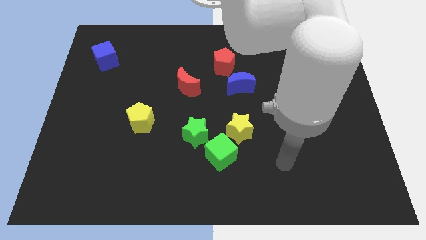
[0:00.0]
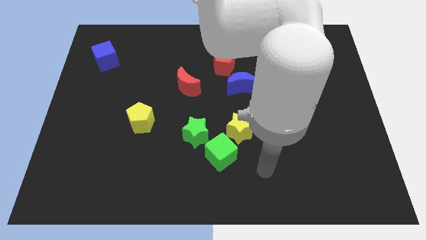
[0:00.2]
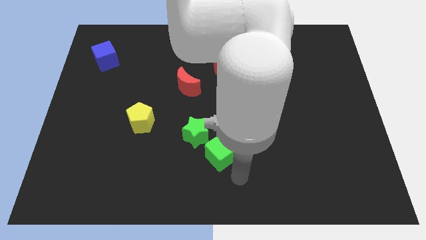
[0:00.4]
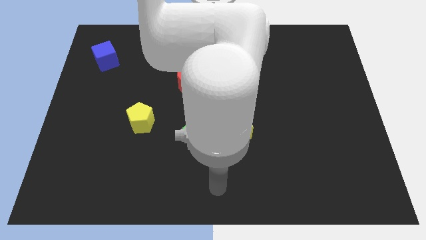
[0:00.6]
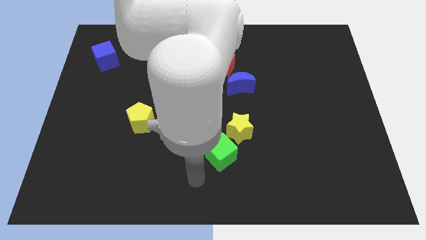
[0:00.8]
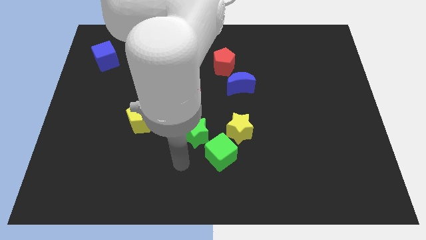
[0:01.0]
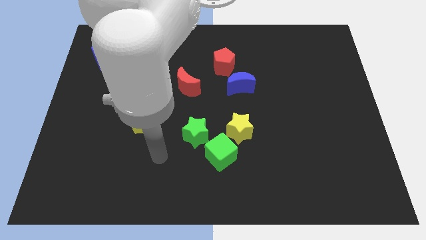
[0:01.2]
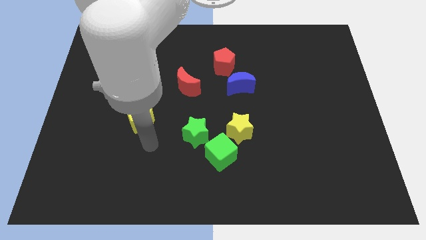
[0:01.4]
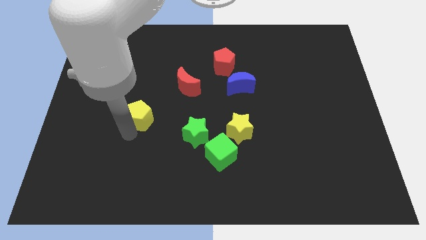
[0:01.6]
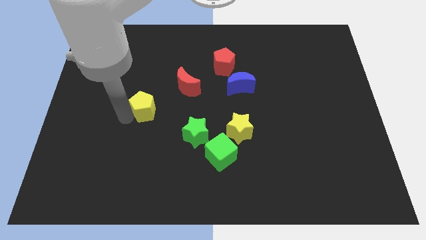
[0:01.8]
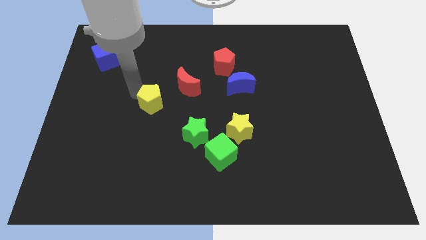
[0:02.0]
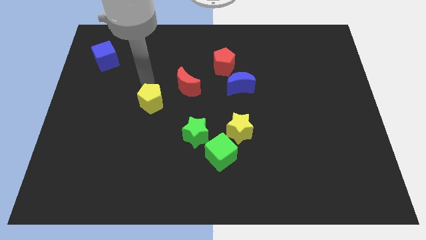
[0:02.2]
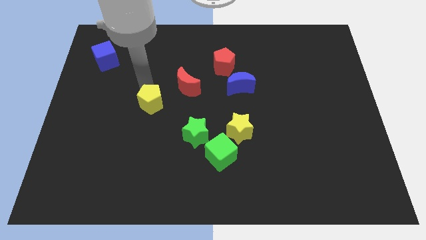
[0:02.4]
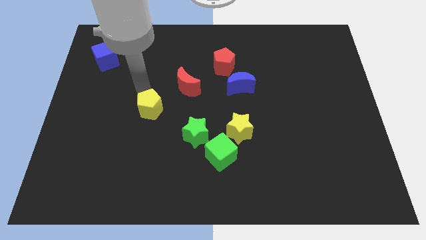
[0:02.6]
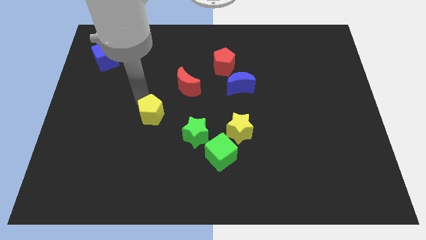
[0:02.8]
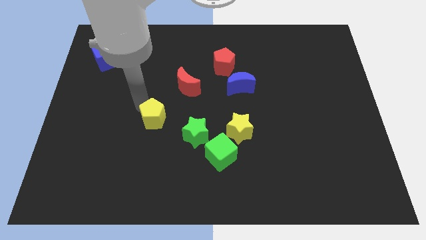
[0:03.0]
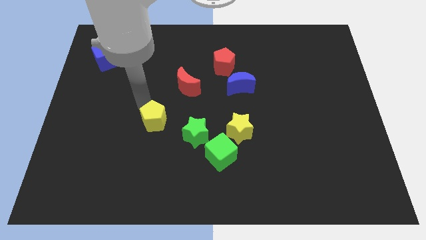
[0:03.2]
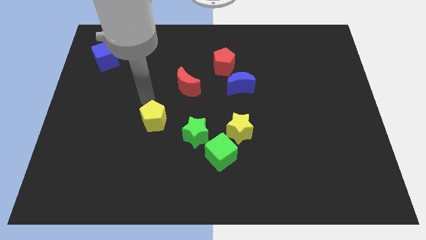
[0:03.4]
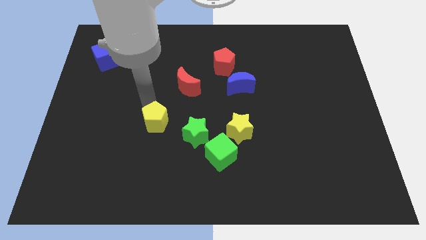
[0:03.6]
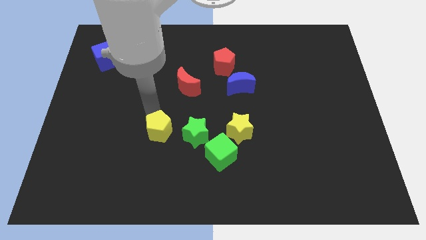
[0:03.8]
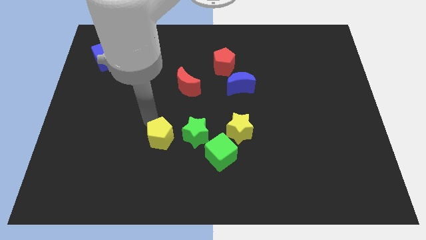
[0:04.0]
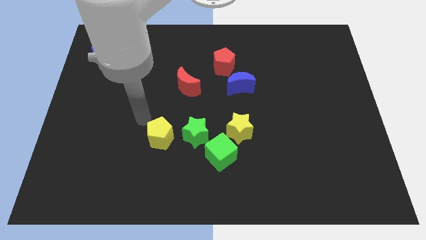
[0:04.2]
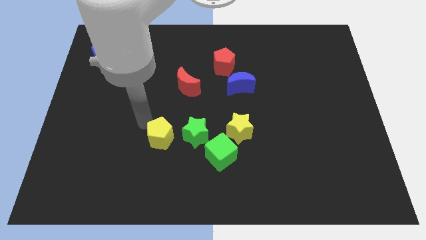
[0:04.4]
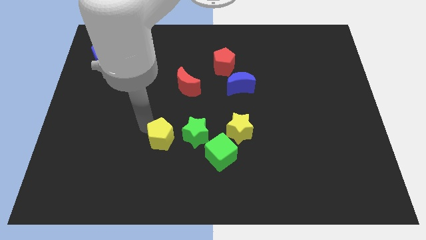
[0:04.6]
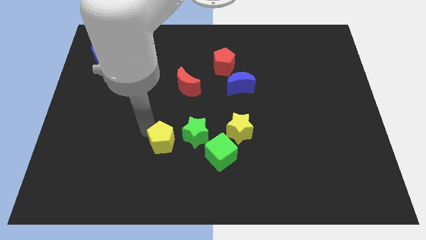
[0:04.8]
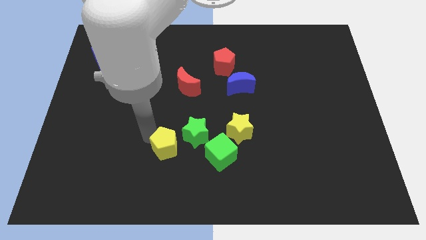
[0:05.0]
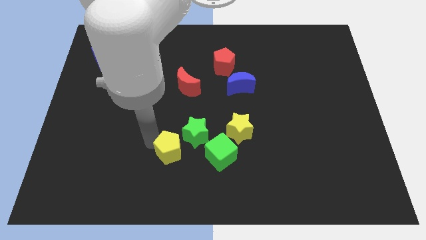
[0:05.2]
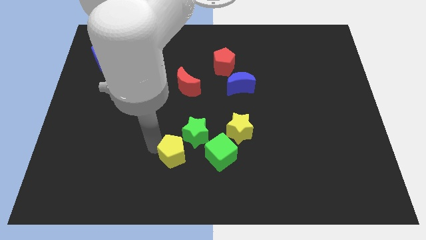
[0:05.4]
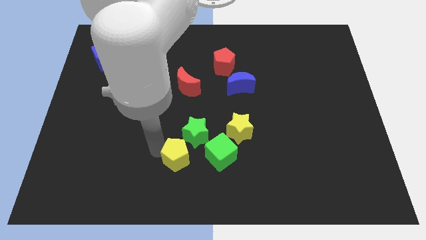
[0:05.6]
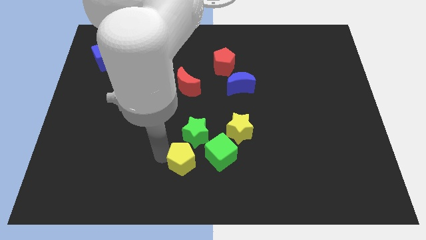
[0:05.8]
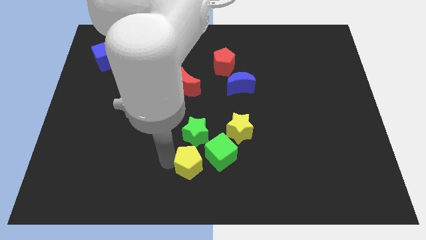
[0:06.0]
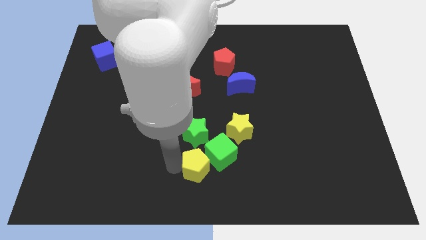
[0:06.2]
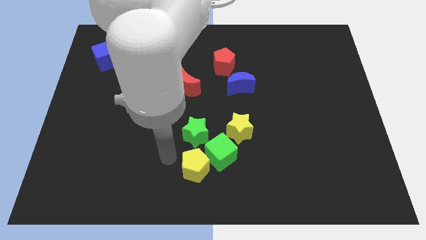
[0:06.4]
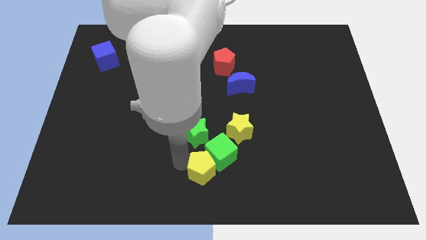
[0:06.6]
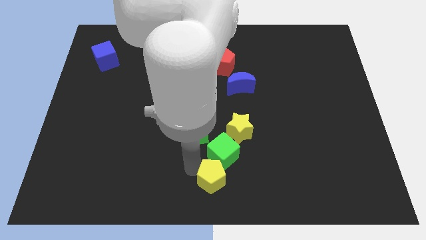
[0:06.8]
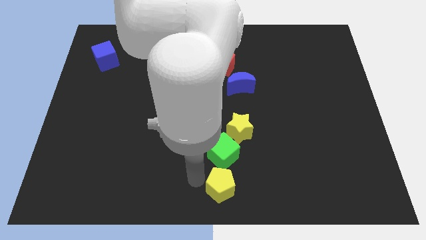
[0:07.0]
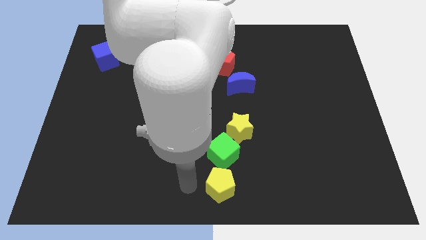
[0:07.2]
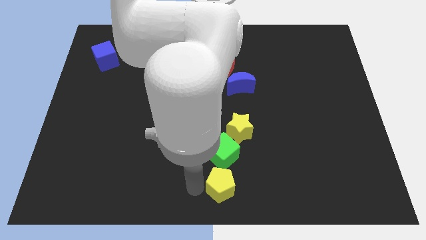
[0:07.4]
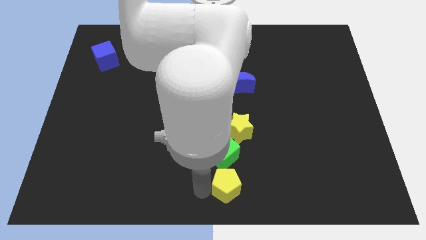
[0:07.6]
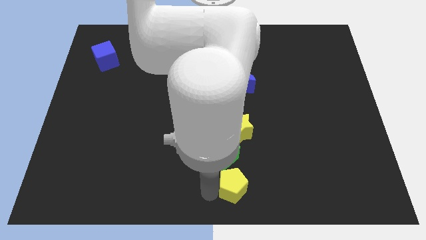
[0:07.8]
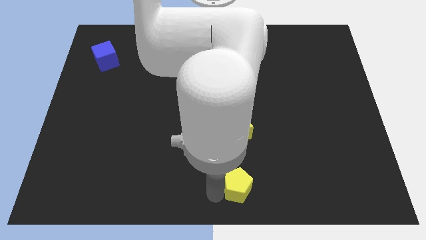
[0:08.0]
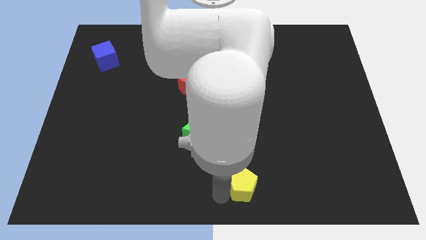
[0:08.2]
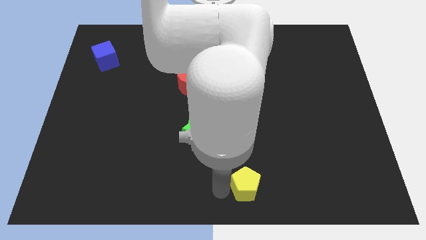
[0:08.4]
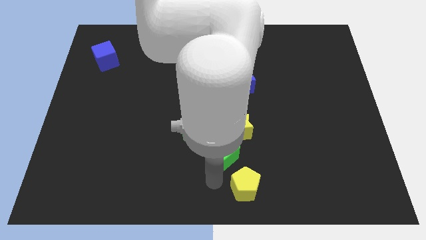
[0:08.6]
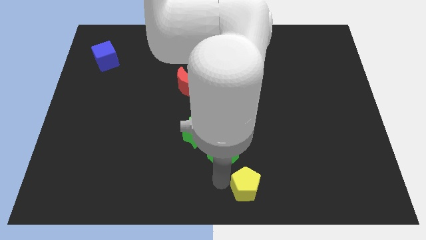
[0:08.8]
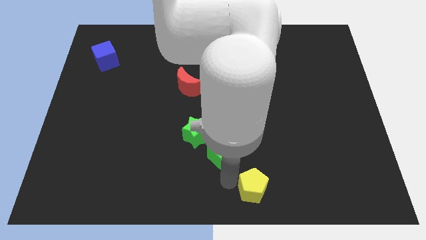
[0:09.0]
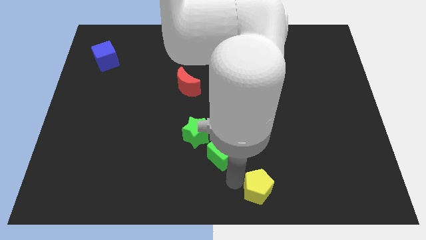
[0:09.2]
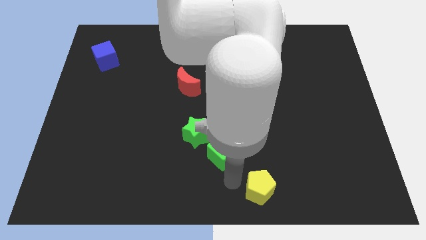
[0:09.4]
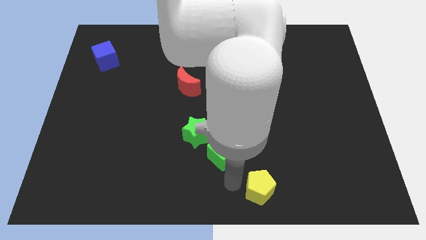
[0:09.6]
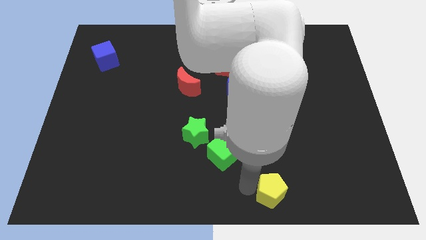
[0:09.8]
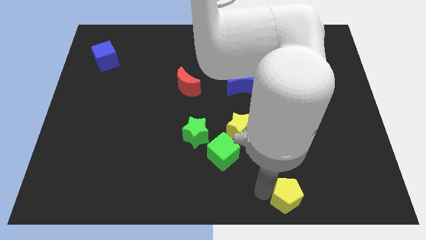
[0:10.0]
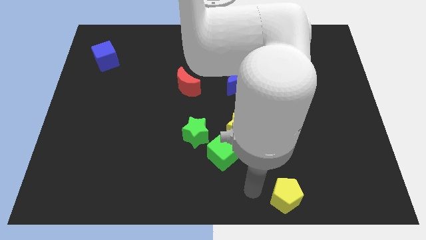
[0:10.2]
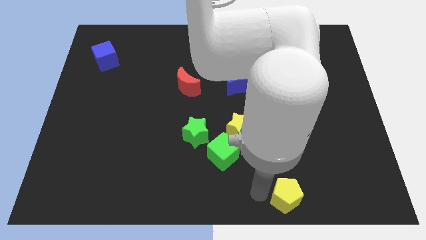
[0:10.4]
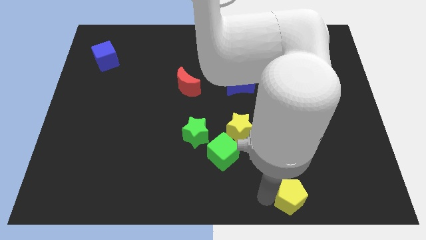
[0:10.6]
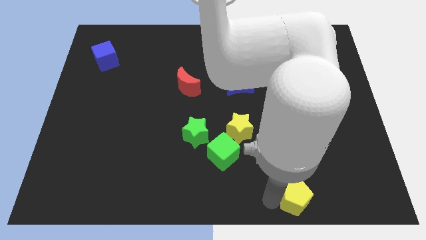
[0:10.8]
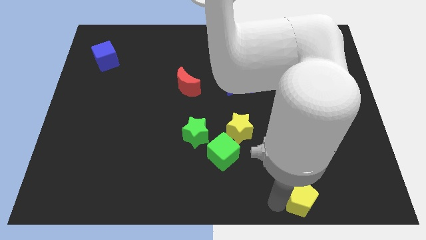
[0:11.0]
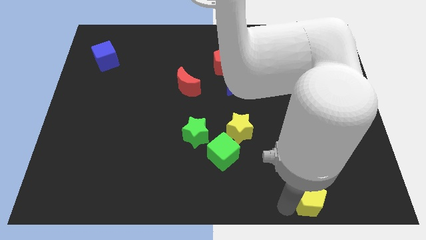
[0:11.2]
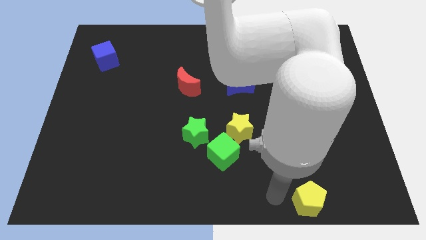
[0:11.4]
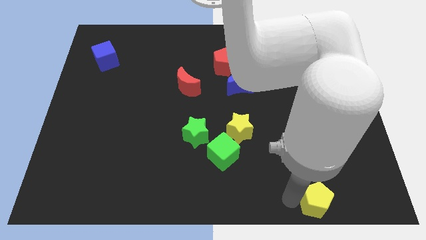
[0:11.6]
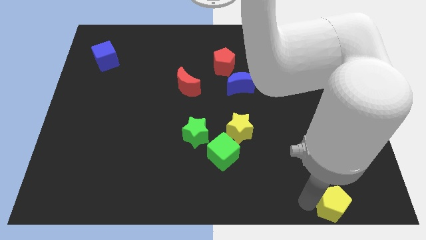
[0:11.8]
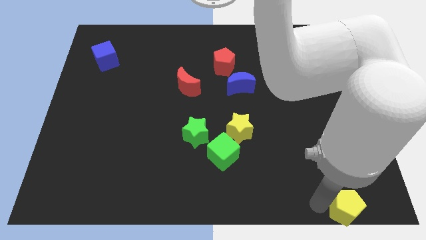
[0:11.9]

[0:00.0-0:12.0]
move the yellow pentagon to the bottom right

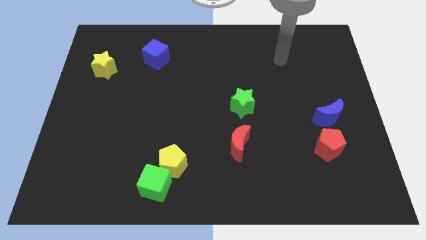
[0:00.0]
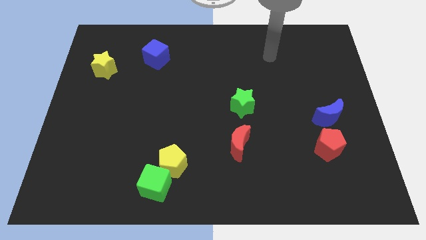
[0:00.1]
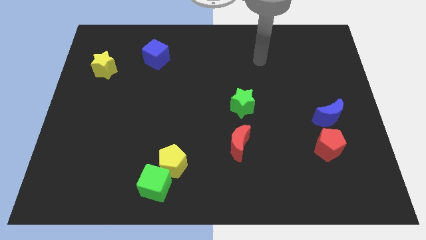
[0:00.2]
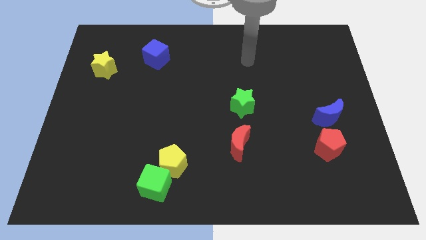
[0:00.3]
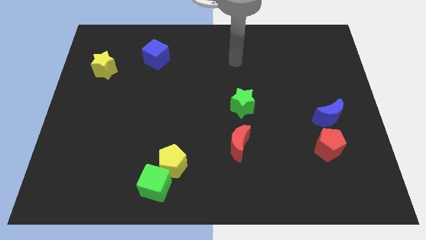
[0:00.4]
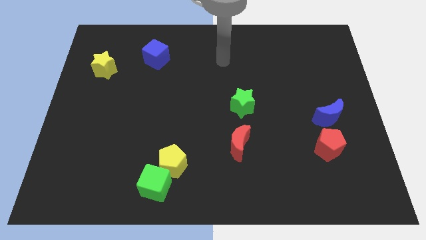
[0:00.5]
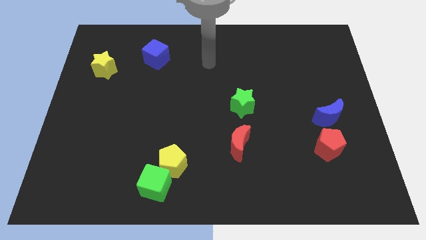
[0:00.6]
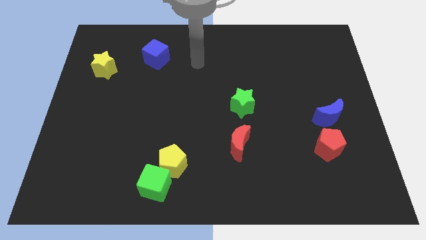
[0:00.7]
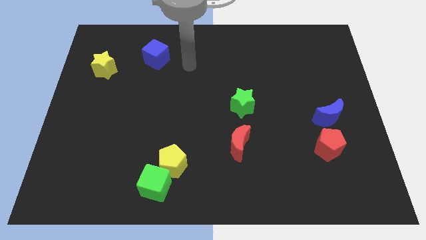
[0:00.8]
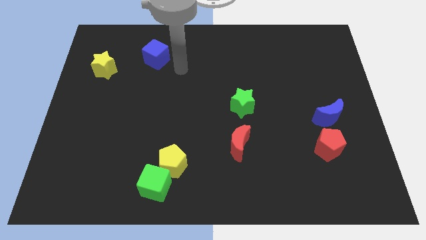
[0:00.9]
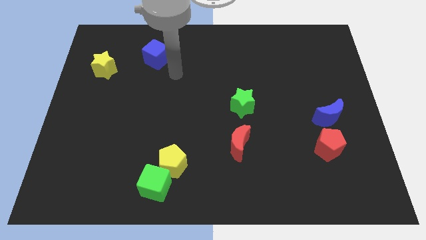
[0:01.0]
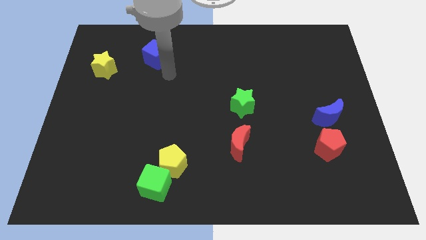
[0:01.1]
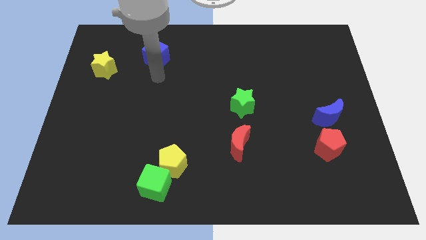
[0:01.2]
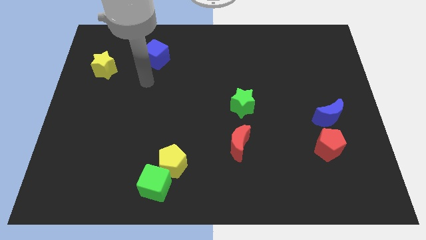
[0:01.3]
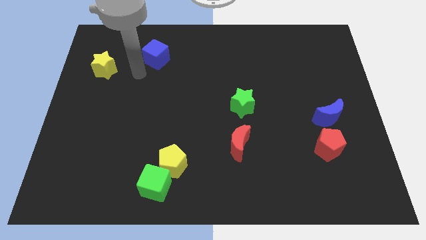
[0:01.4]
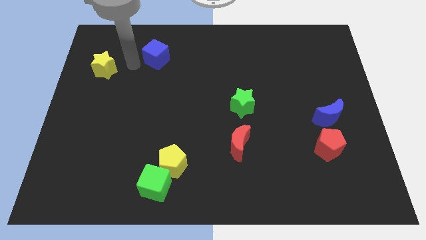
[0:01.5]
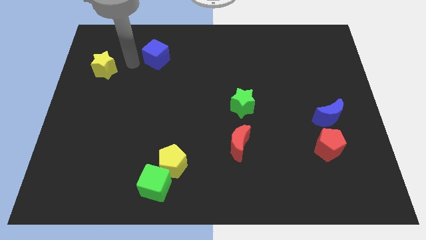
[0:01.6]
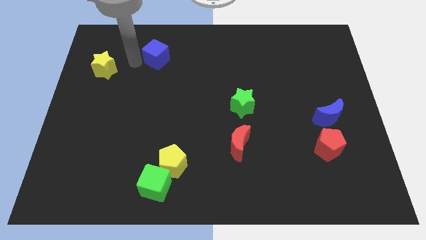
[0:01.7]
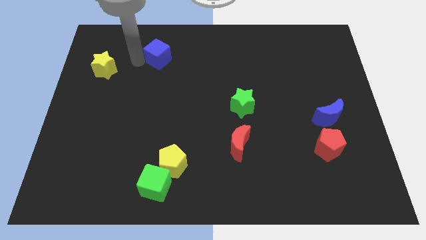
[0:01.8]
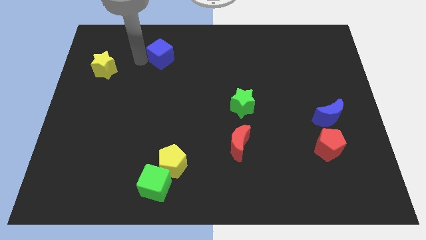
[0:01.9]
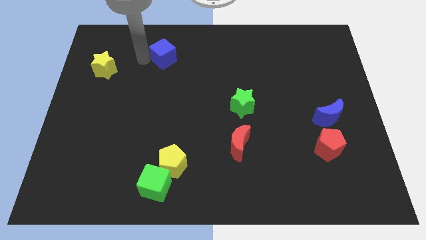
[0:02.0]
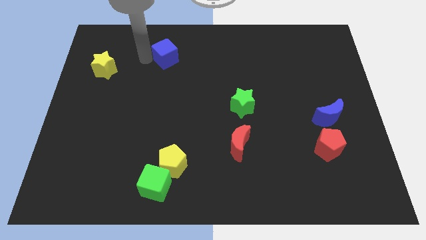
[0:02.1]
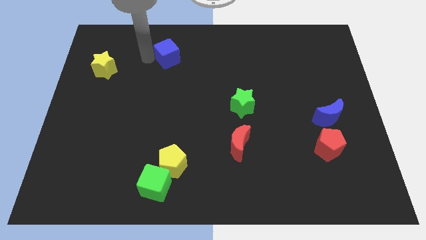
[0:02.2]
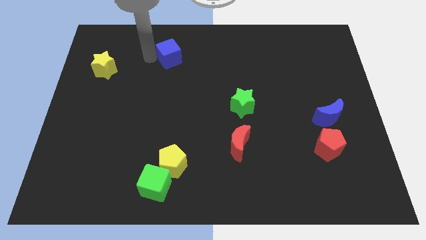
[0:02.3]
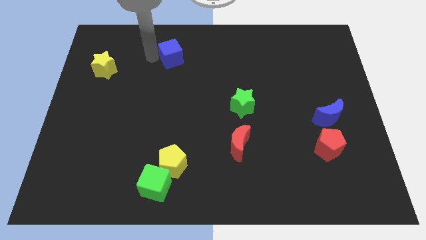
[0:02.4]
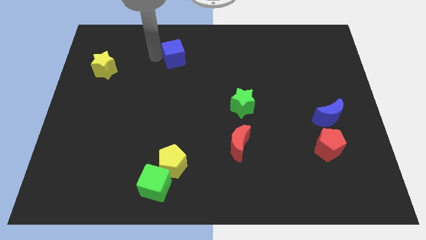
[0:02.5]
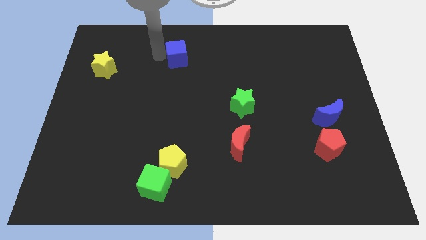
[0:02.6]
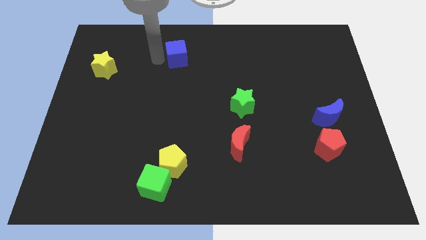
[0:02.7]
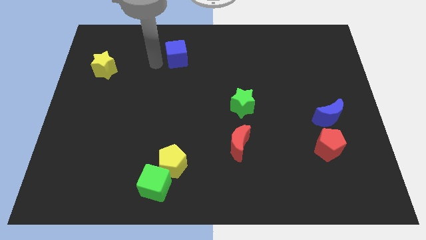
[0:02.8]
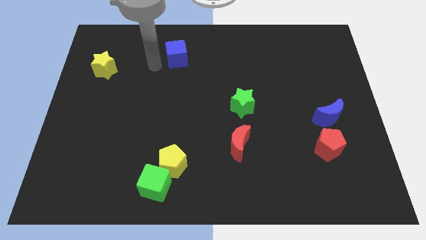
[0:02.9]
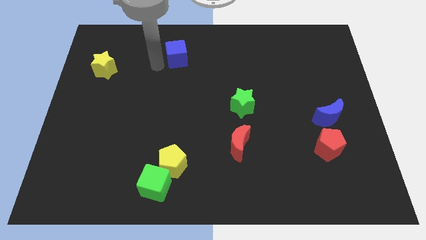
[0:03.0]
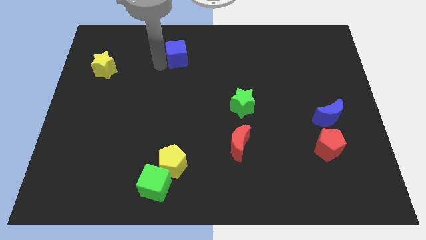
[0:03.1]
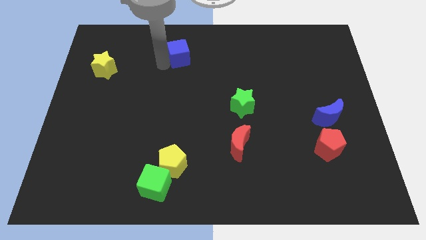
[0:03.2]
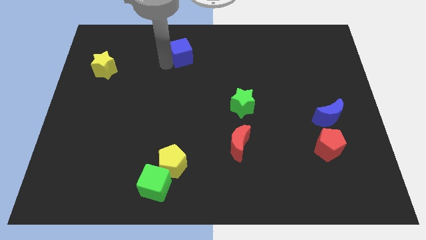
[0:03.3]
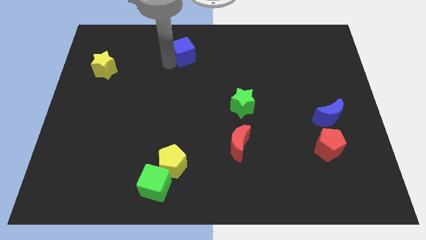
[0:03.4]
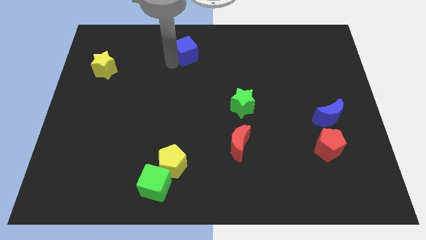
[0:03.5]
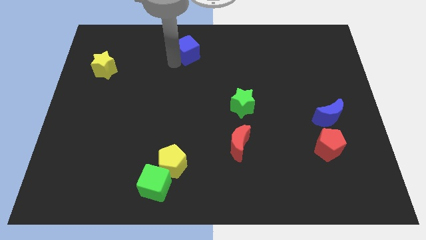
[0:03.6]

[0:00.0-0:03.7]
push the blue cube to the towards your base
